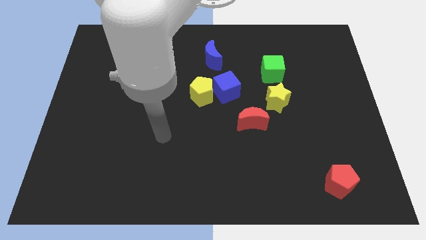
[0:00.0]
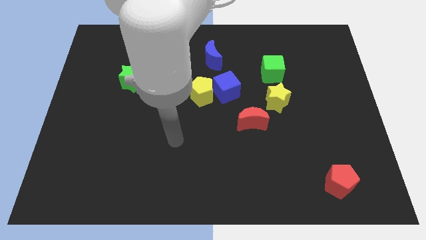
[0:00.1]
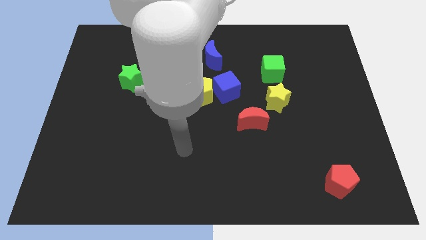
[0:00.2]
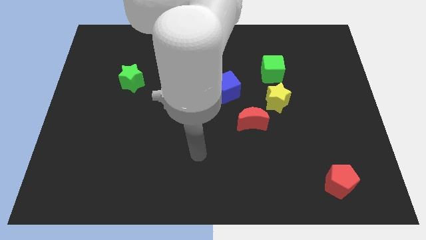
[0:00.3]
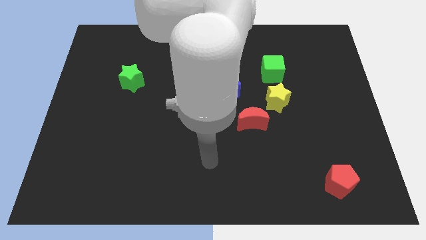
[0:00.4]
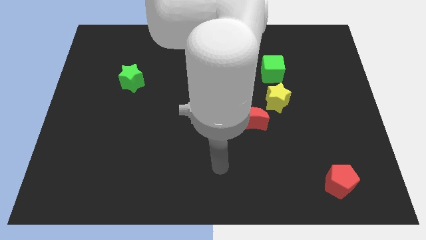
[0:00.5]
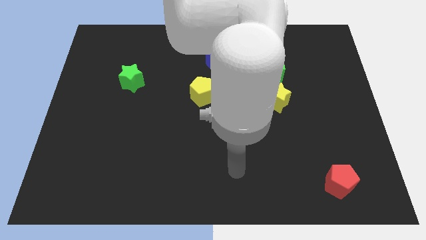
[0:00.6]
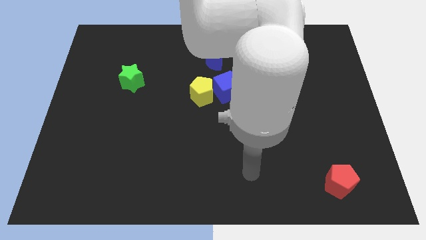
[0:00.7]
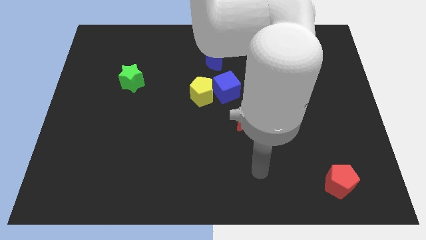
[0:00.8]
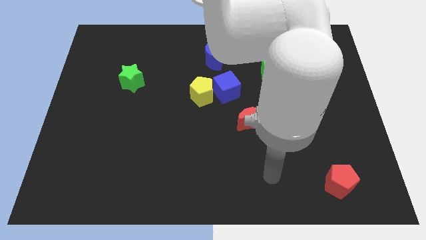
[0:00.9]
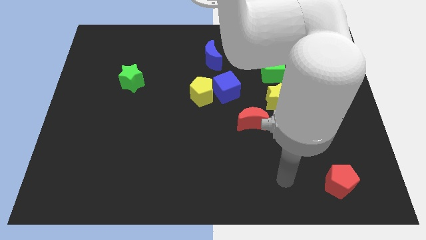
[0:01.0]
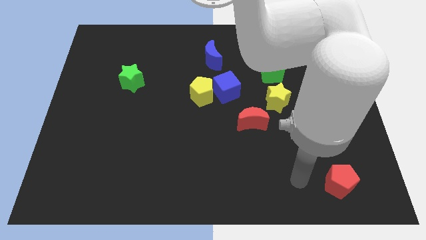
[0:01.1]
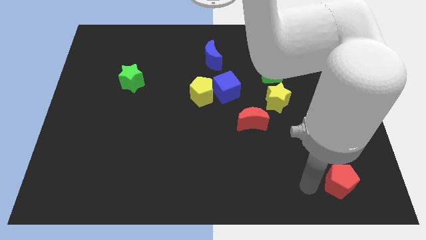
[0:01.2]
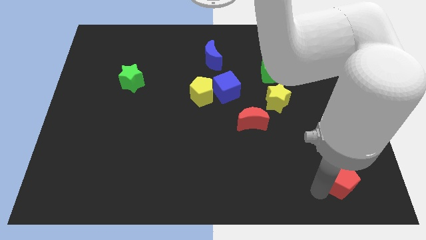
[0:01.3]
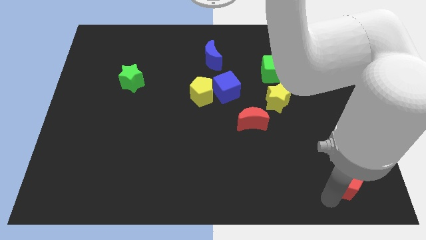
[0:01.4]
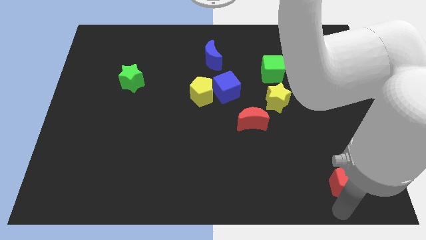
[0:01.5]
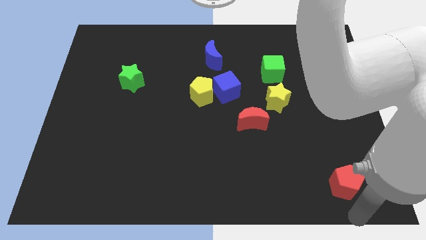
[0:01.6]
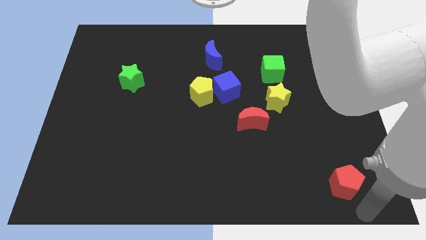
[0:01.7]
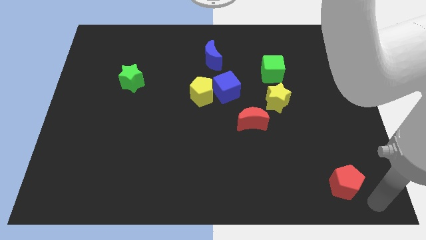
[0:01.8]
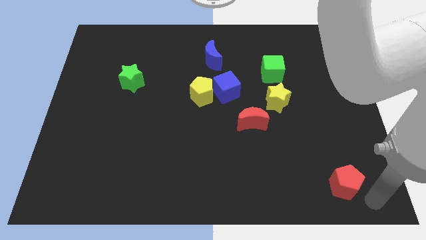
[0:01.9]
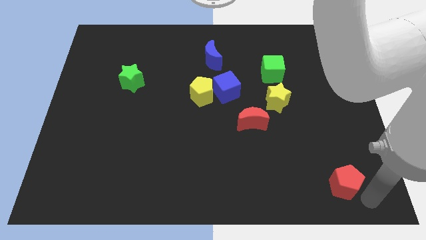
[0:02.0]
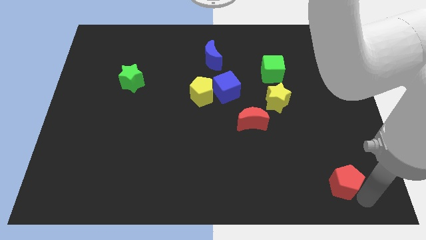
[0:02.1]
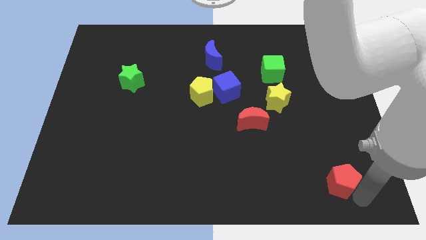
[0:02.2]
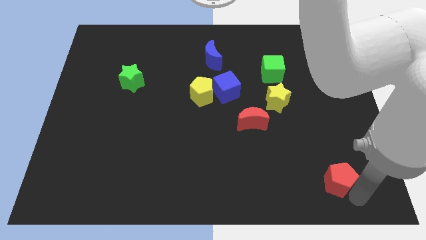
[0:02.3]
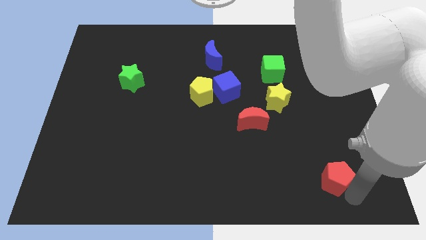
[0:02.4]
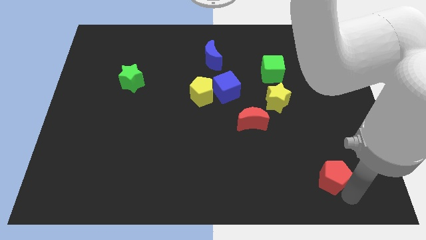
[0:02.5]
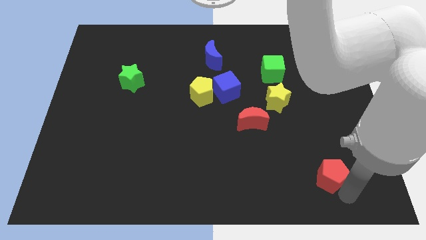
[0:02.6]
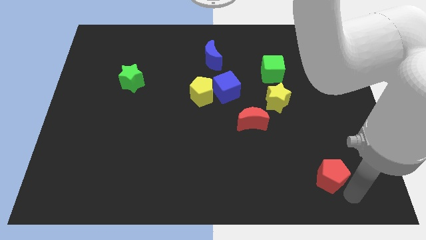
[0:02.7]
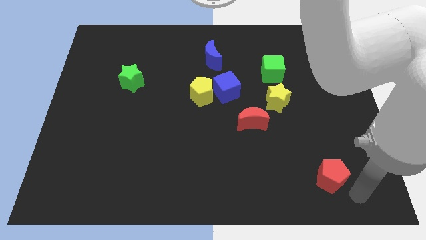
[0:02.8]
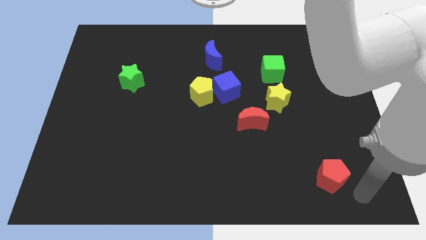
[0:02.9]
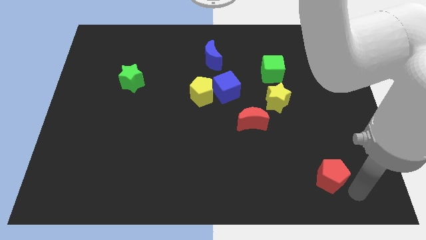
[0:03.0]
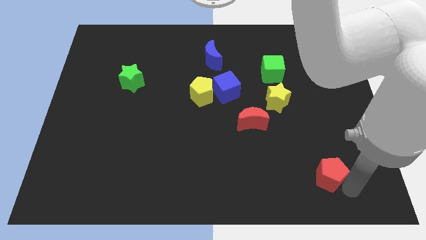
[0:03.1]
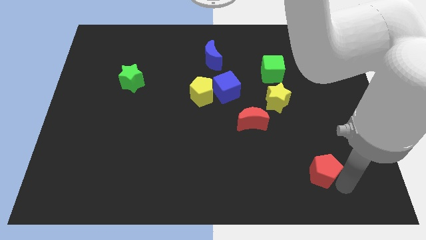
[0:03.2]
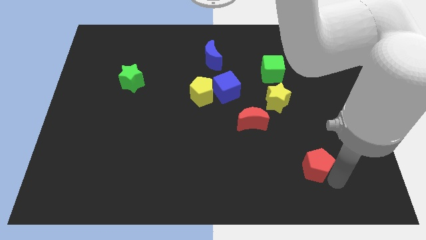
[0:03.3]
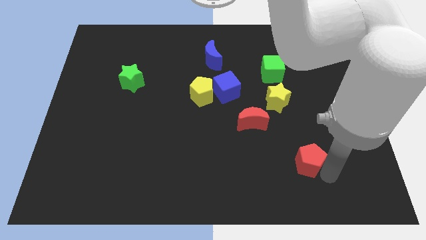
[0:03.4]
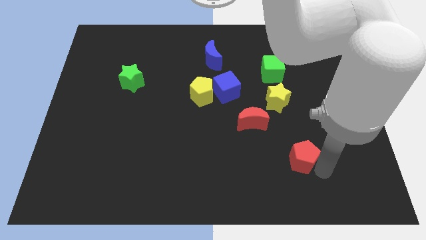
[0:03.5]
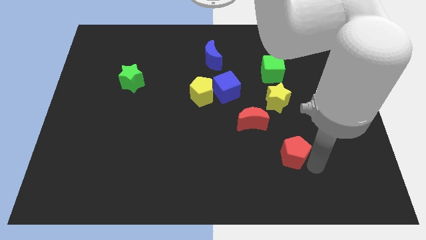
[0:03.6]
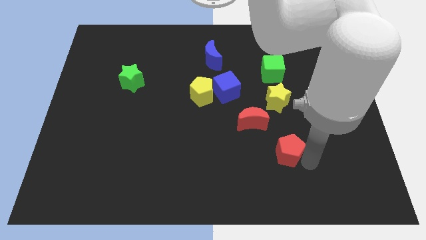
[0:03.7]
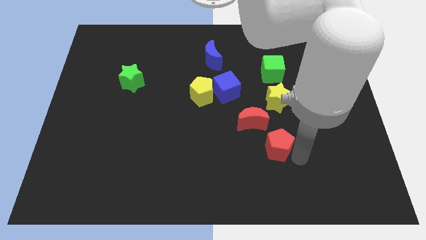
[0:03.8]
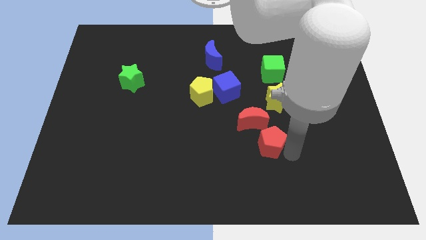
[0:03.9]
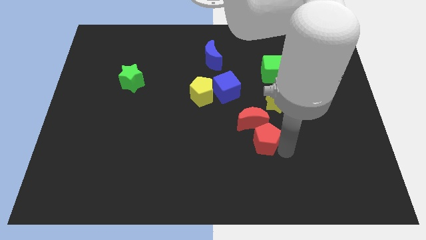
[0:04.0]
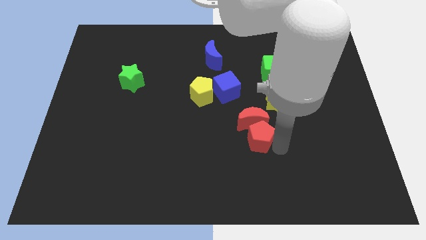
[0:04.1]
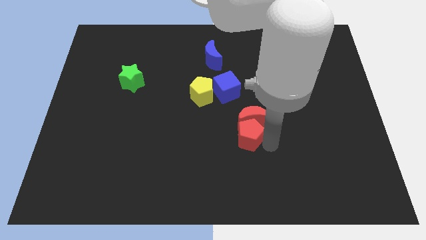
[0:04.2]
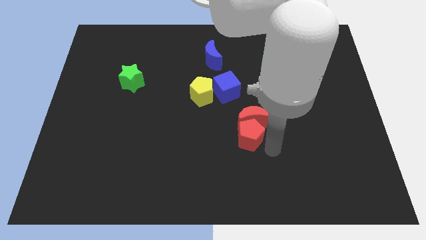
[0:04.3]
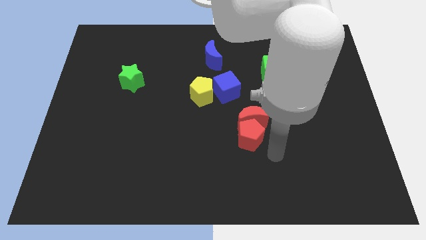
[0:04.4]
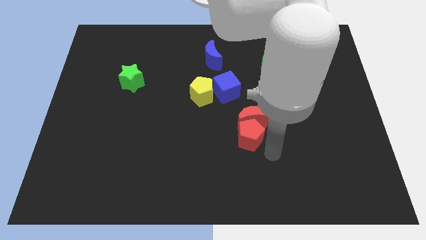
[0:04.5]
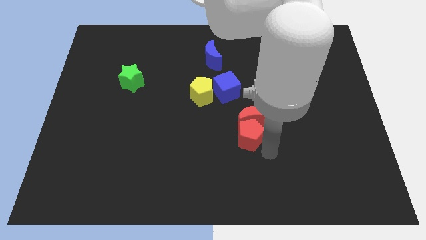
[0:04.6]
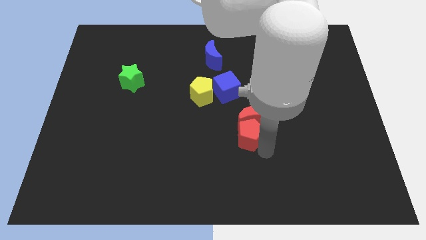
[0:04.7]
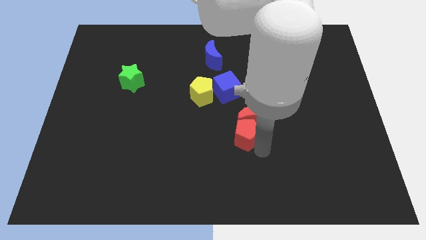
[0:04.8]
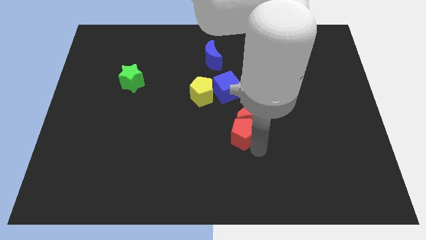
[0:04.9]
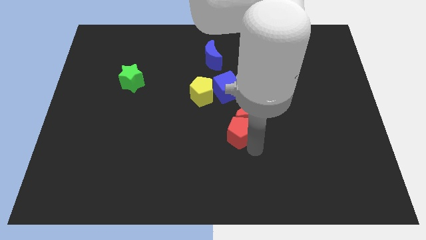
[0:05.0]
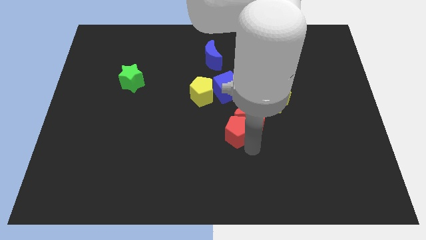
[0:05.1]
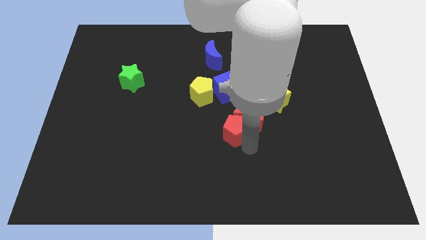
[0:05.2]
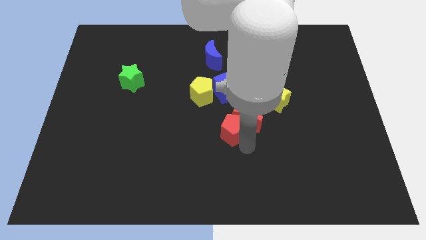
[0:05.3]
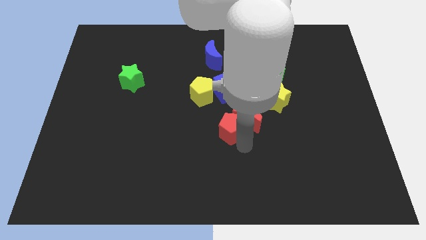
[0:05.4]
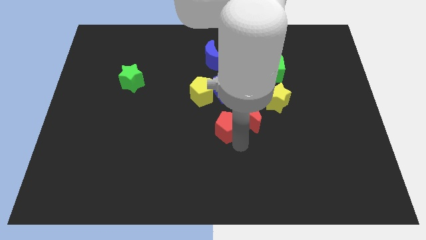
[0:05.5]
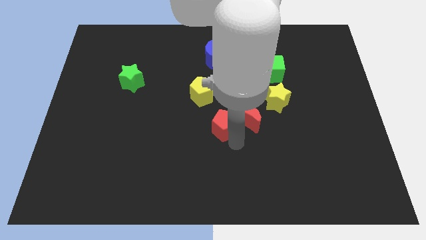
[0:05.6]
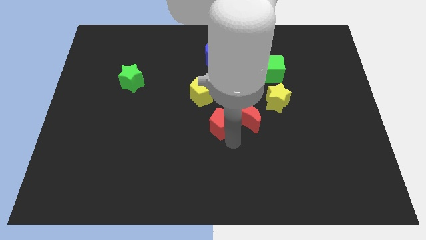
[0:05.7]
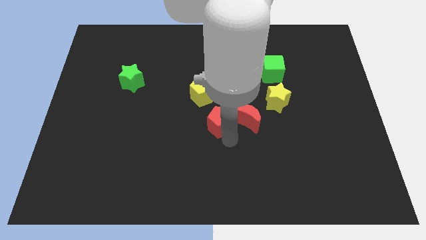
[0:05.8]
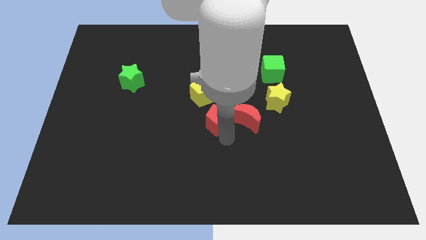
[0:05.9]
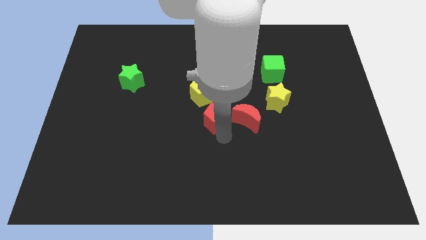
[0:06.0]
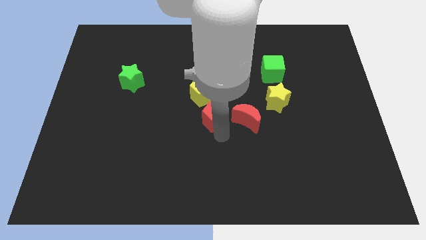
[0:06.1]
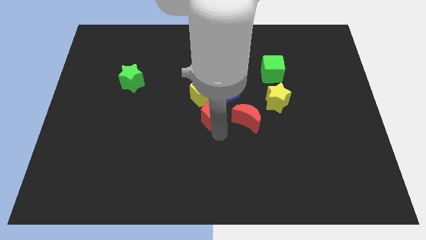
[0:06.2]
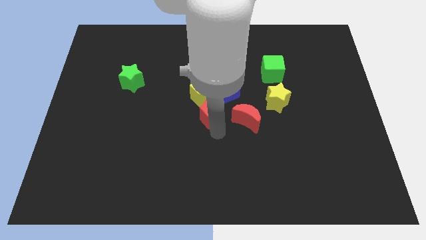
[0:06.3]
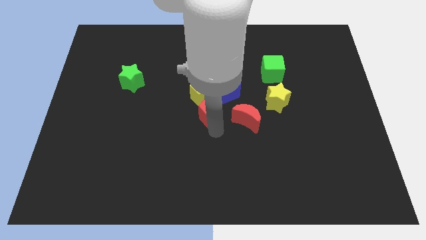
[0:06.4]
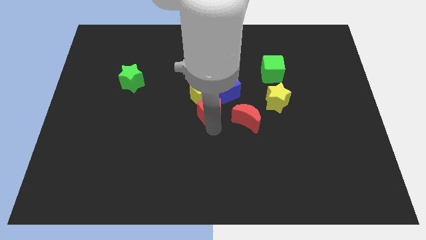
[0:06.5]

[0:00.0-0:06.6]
put the red pentagon to the yellow pentagon

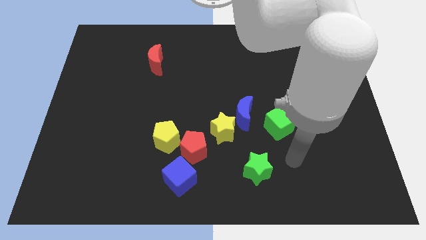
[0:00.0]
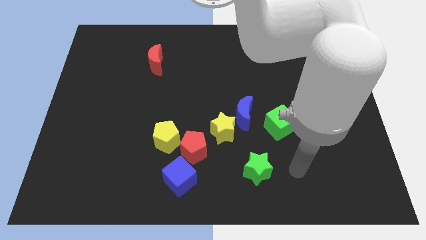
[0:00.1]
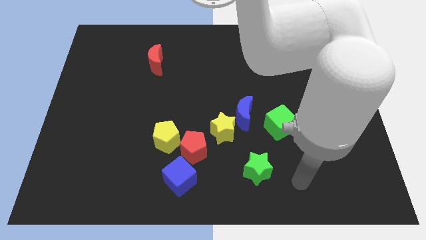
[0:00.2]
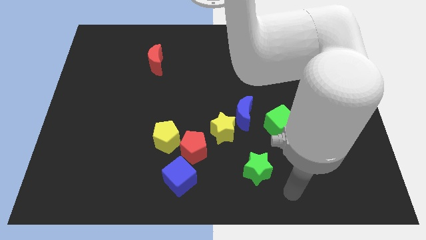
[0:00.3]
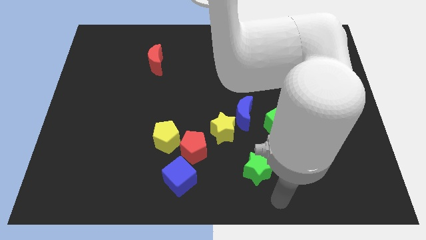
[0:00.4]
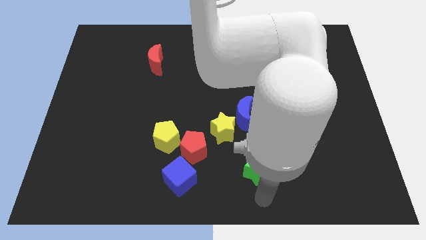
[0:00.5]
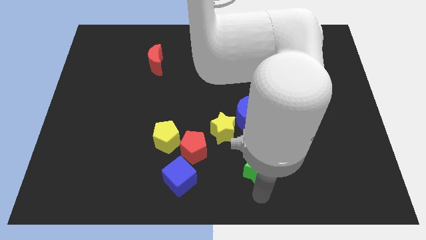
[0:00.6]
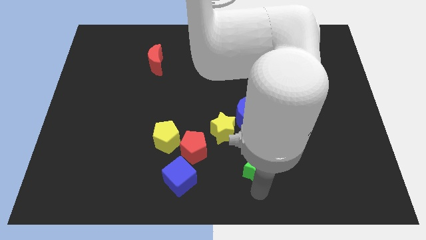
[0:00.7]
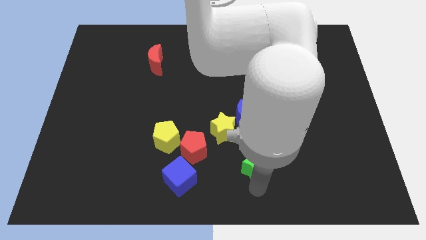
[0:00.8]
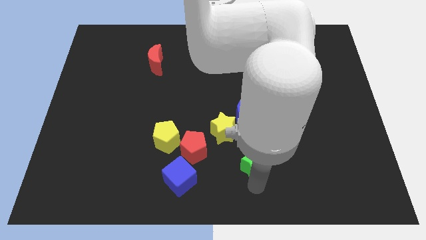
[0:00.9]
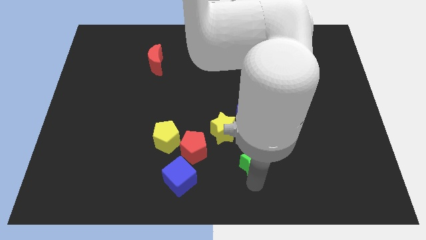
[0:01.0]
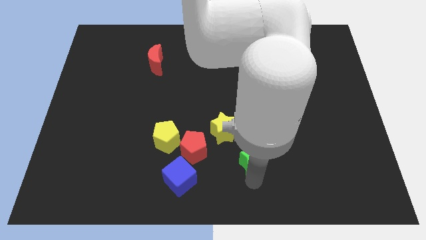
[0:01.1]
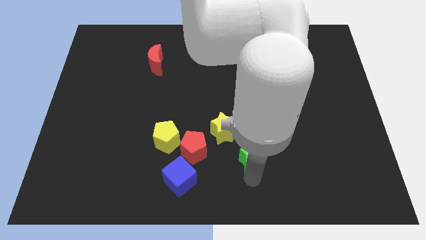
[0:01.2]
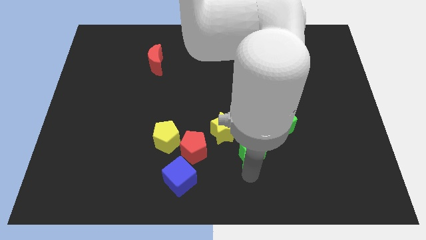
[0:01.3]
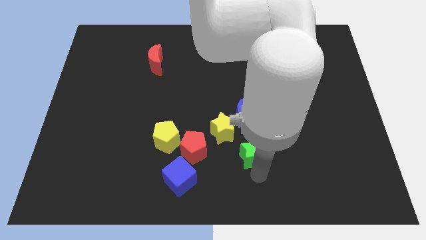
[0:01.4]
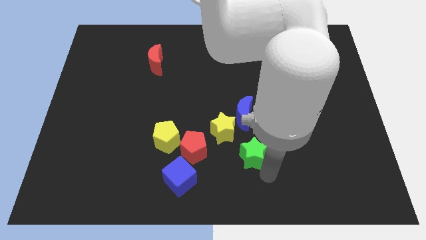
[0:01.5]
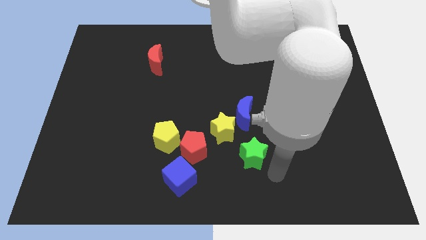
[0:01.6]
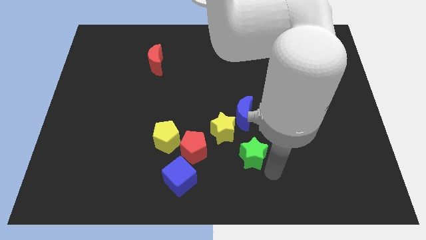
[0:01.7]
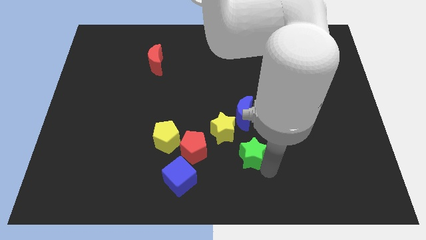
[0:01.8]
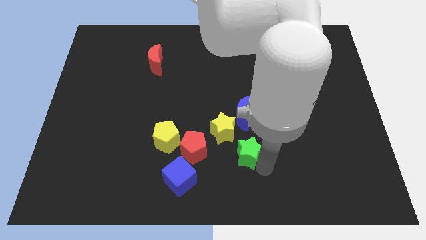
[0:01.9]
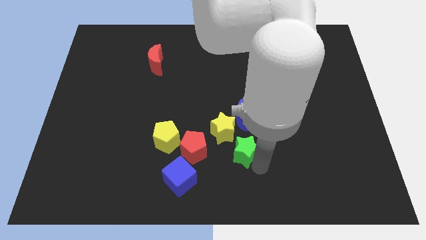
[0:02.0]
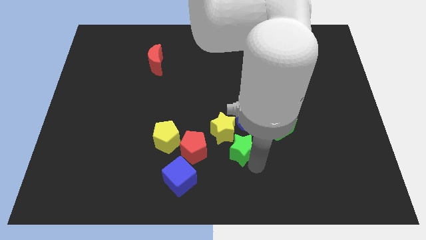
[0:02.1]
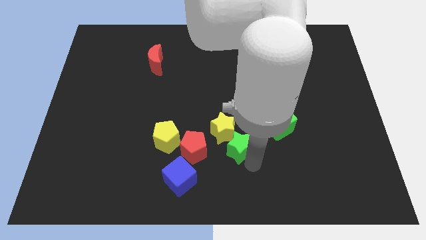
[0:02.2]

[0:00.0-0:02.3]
slide the green star towards the yellow star
